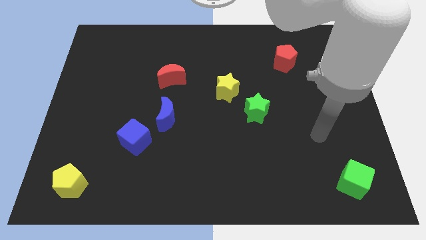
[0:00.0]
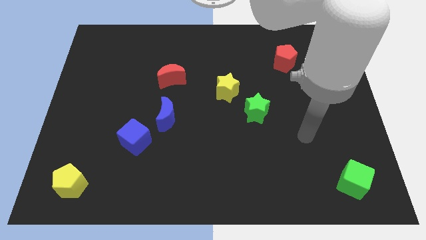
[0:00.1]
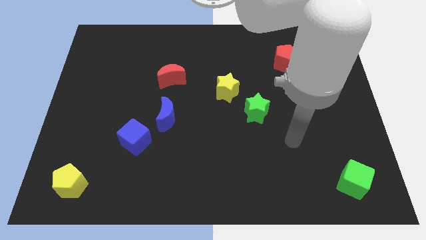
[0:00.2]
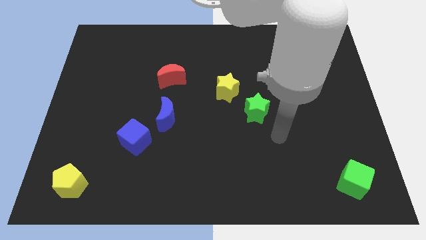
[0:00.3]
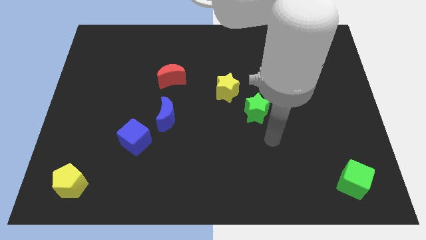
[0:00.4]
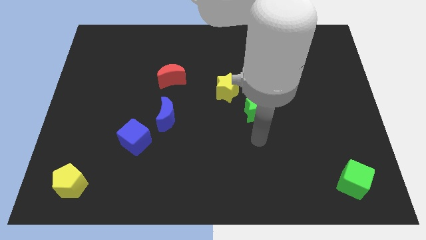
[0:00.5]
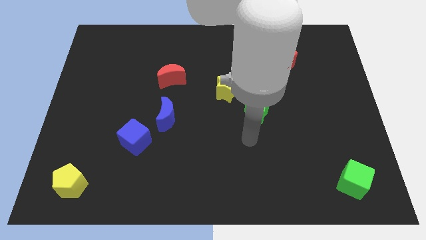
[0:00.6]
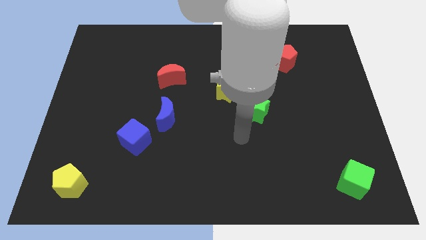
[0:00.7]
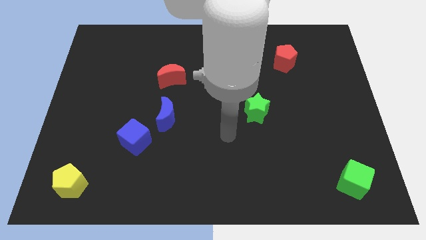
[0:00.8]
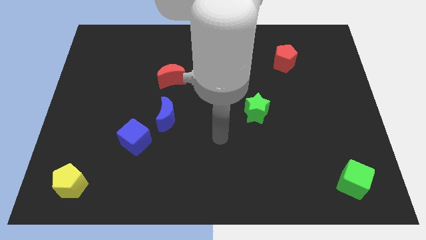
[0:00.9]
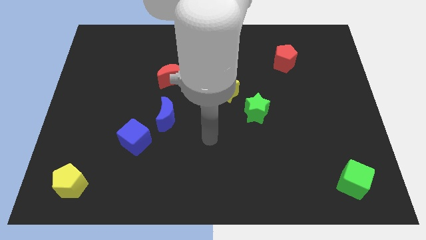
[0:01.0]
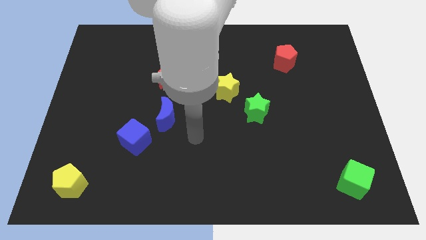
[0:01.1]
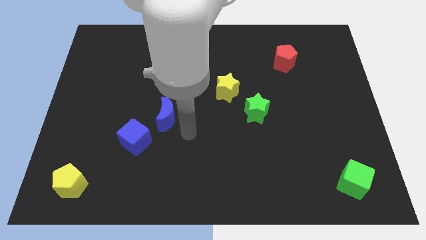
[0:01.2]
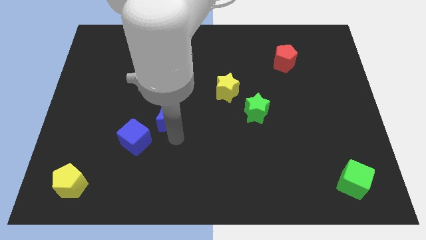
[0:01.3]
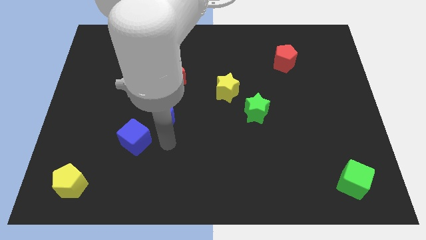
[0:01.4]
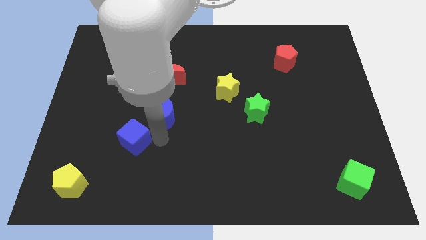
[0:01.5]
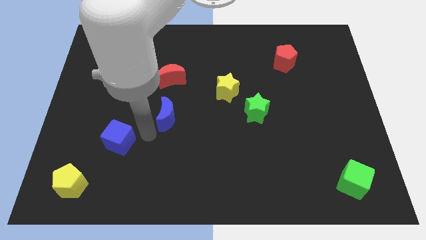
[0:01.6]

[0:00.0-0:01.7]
separate the blue moon from the blue cube

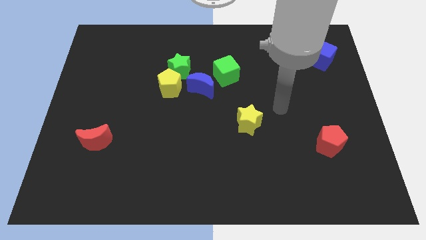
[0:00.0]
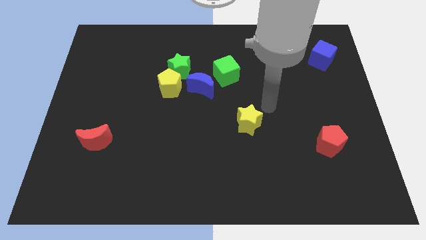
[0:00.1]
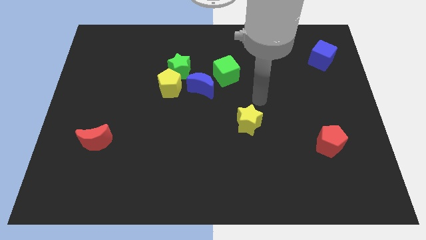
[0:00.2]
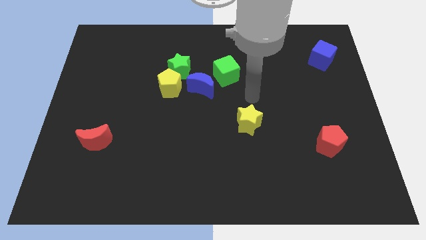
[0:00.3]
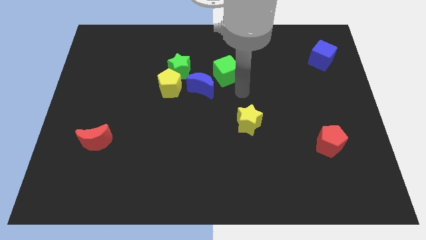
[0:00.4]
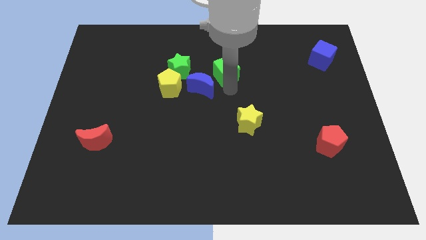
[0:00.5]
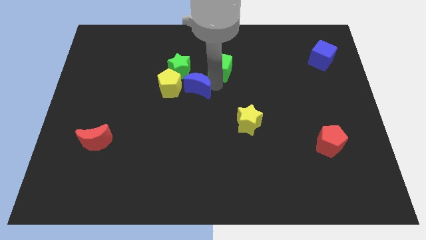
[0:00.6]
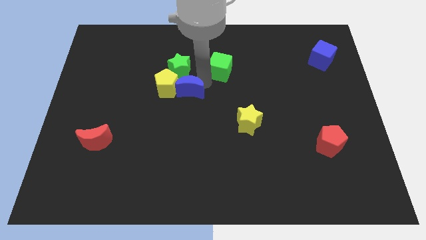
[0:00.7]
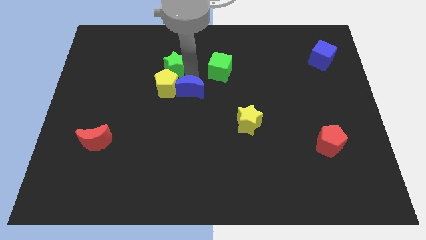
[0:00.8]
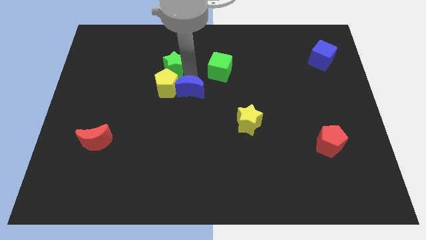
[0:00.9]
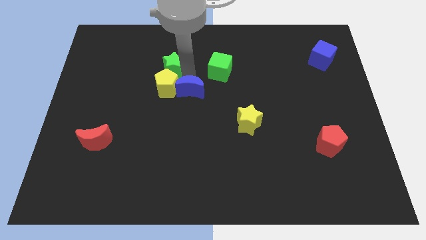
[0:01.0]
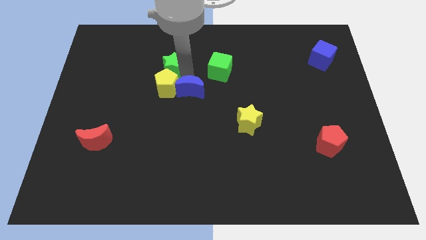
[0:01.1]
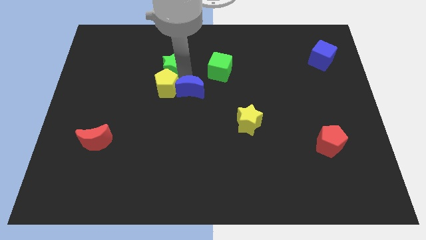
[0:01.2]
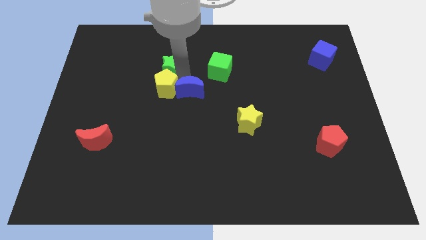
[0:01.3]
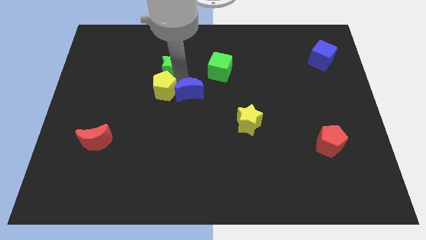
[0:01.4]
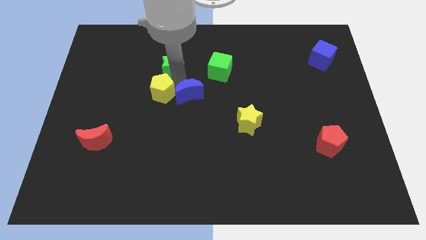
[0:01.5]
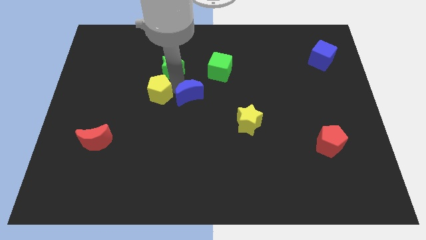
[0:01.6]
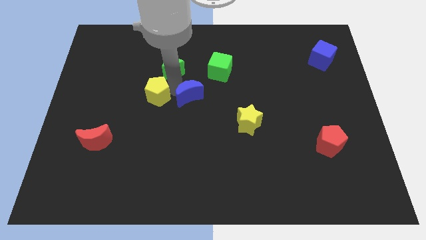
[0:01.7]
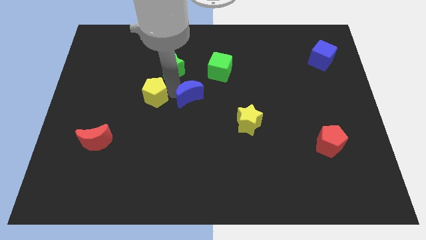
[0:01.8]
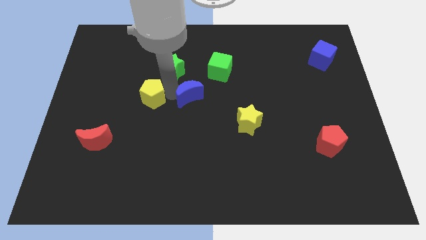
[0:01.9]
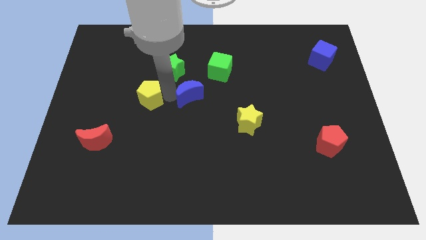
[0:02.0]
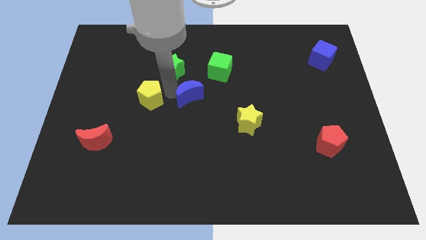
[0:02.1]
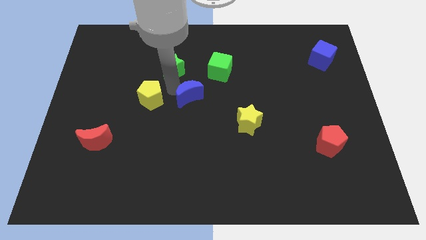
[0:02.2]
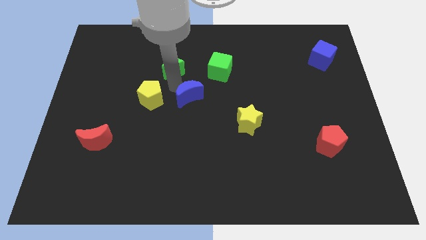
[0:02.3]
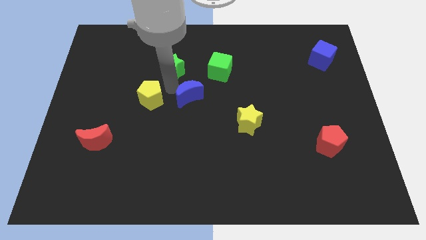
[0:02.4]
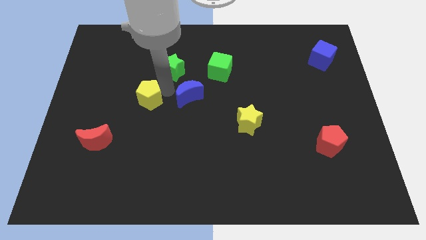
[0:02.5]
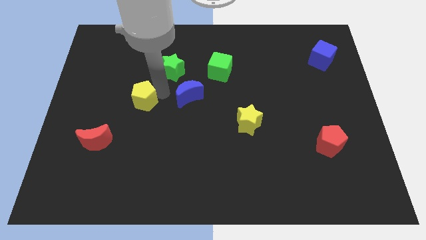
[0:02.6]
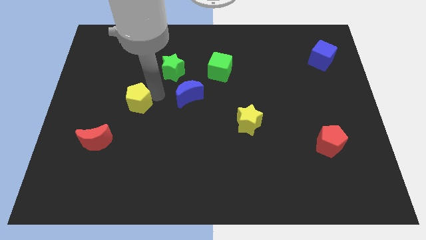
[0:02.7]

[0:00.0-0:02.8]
pull the yellow pentagon apart from the green star and blue moon

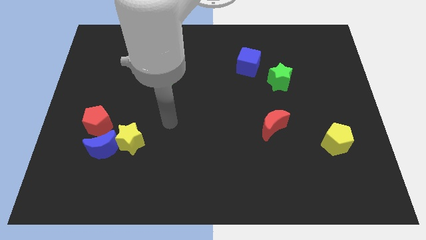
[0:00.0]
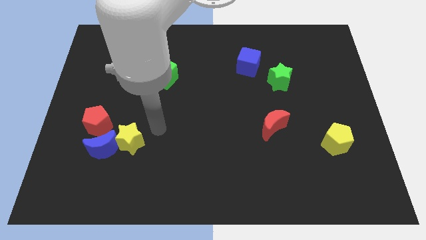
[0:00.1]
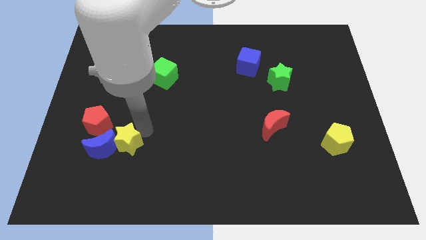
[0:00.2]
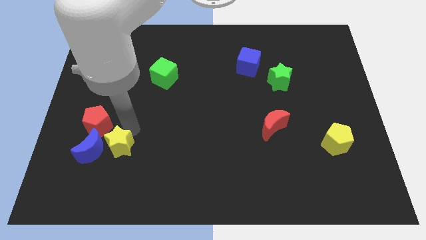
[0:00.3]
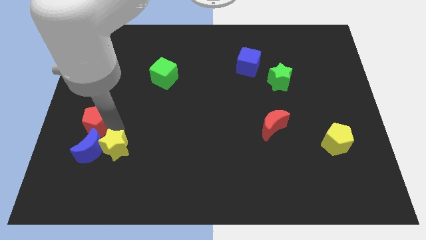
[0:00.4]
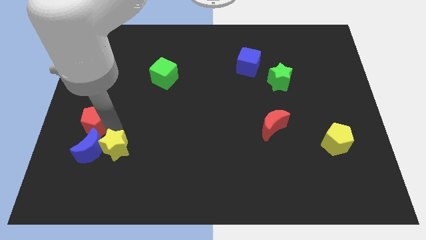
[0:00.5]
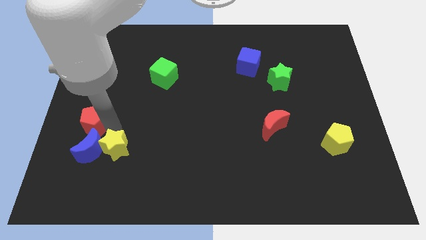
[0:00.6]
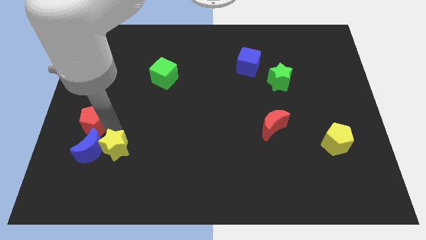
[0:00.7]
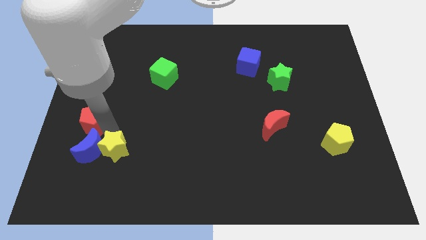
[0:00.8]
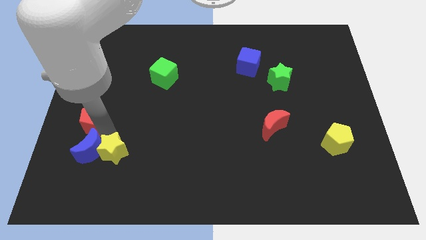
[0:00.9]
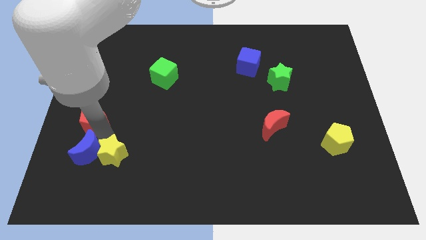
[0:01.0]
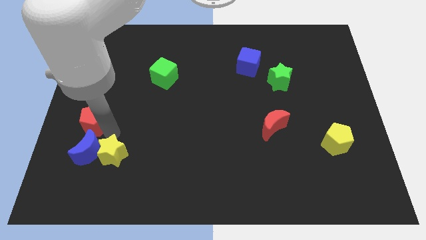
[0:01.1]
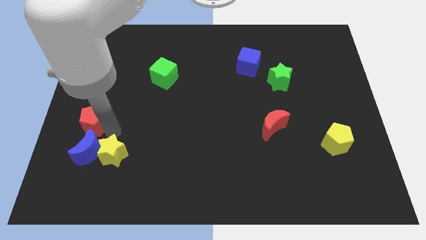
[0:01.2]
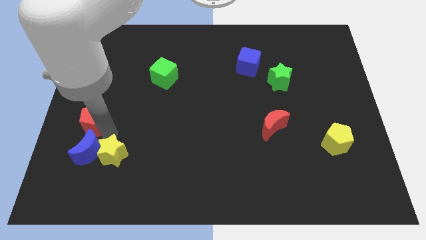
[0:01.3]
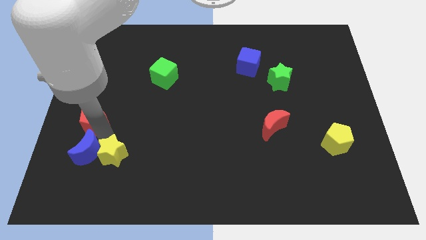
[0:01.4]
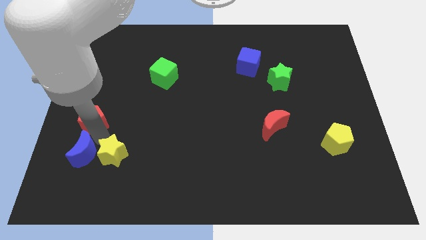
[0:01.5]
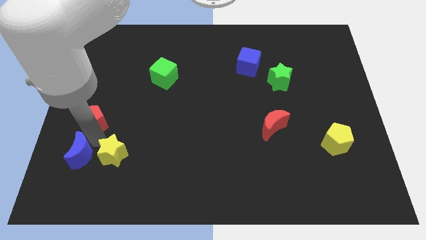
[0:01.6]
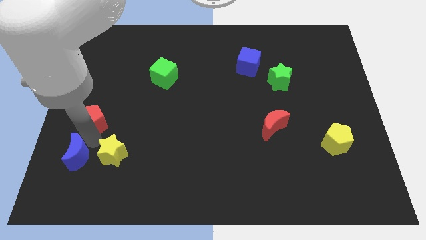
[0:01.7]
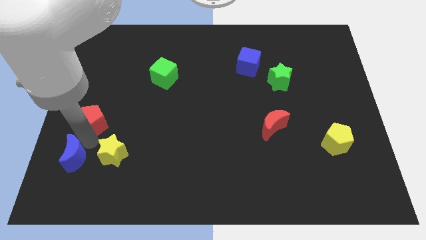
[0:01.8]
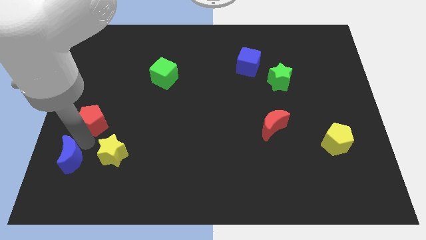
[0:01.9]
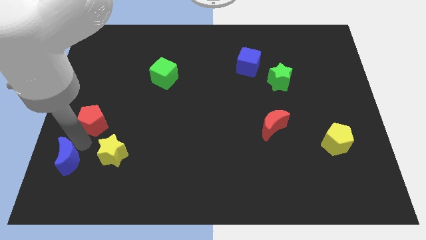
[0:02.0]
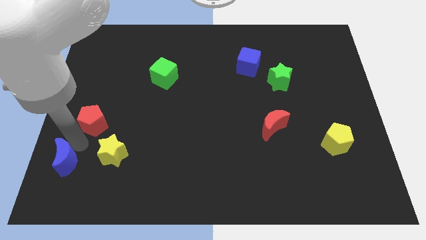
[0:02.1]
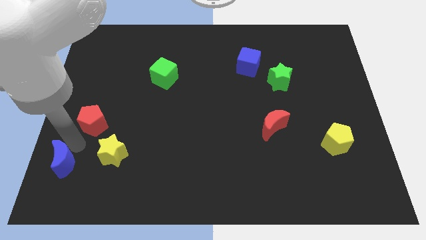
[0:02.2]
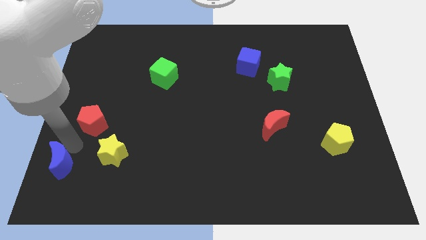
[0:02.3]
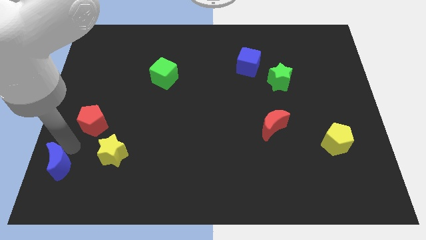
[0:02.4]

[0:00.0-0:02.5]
separate the blue moon from the yellow star and red pentagon

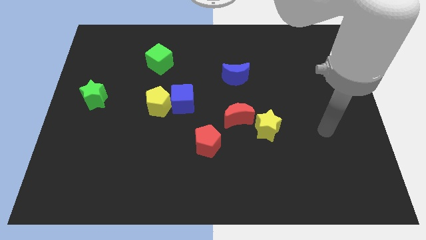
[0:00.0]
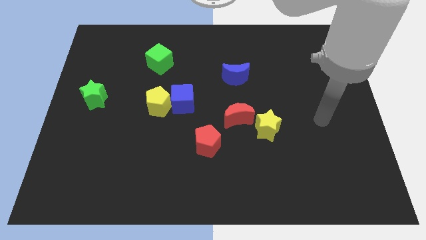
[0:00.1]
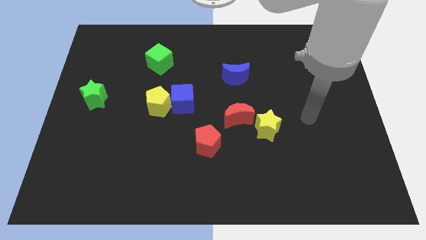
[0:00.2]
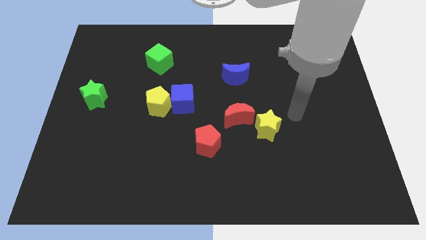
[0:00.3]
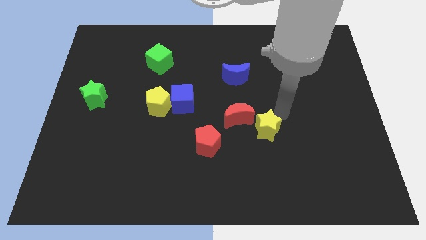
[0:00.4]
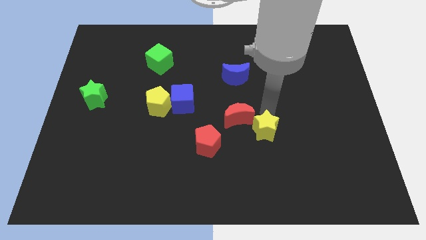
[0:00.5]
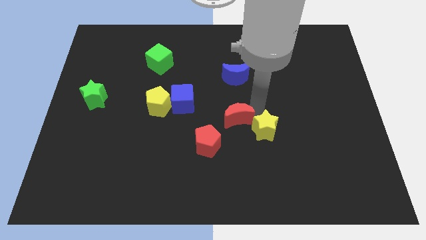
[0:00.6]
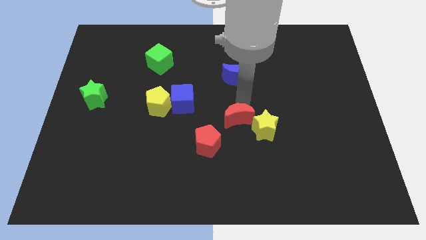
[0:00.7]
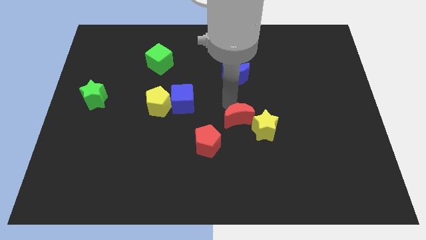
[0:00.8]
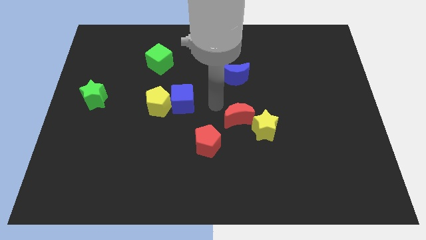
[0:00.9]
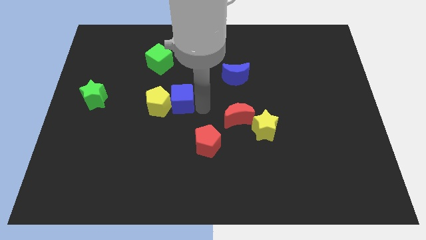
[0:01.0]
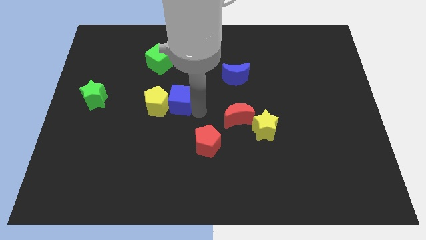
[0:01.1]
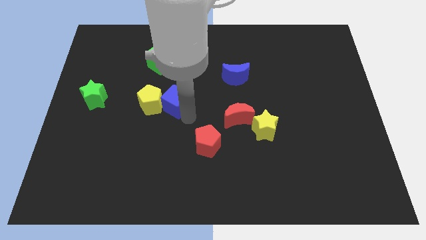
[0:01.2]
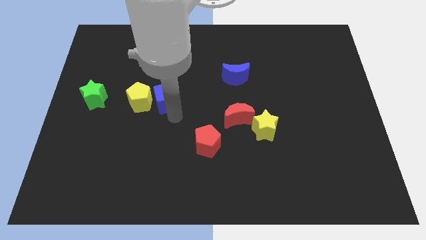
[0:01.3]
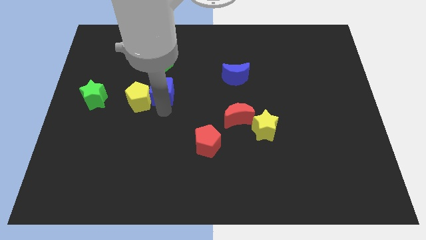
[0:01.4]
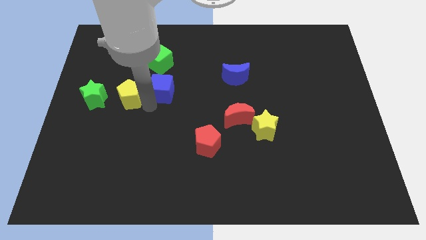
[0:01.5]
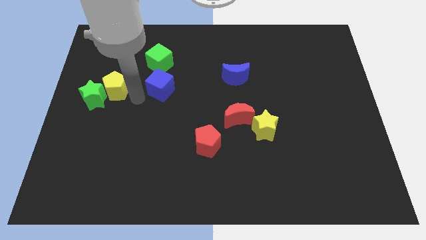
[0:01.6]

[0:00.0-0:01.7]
separate the blue cube from the yellow pentagon

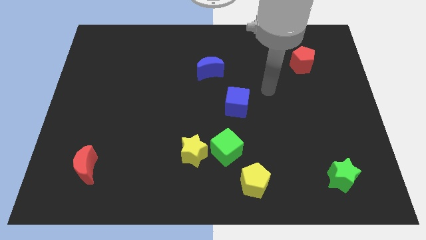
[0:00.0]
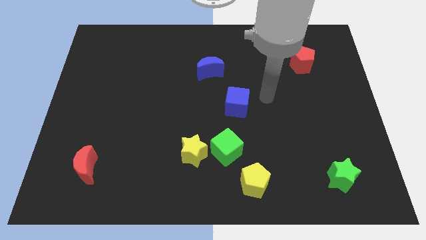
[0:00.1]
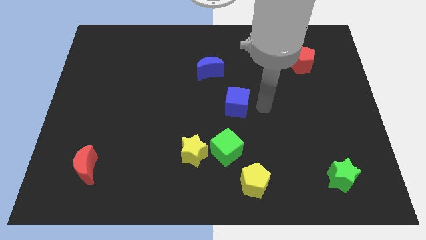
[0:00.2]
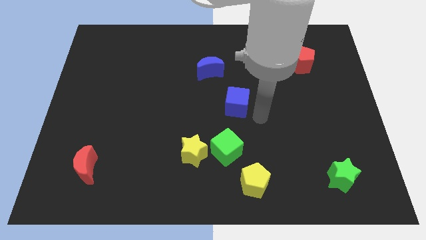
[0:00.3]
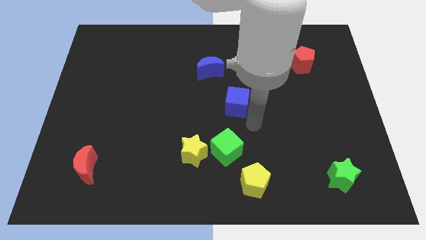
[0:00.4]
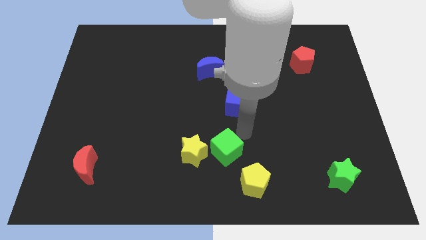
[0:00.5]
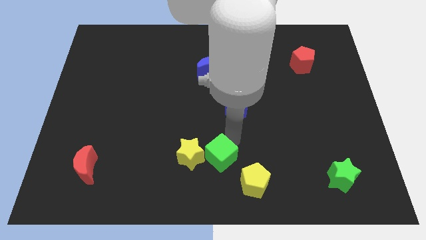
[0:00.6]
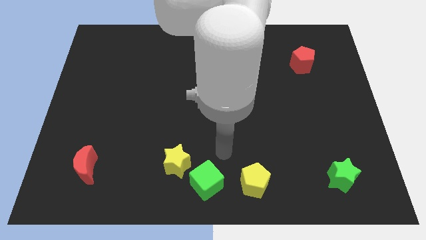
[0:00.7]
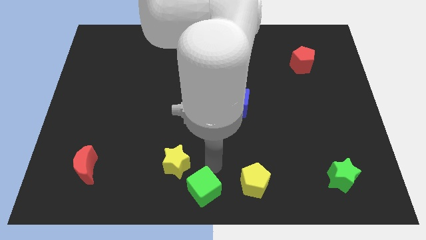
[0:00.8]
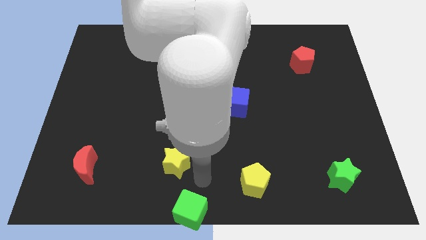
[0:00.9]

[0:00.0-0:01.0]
pull the yellow star apart from the green cube
